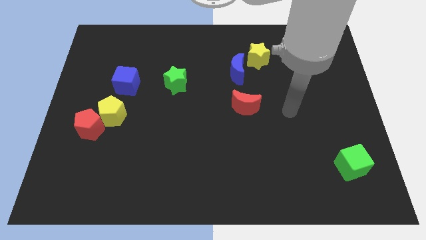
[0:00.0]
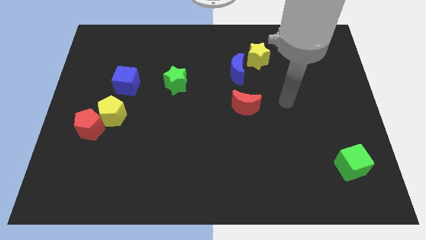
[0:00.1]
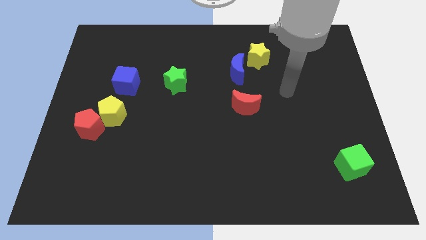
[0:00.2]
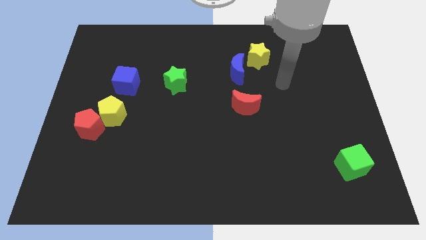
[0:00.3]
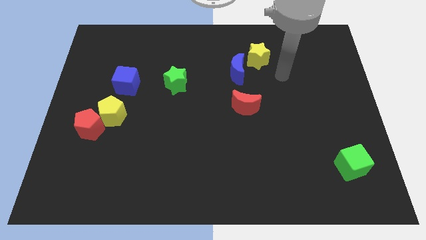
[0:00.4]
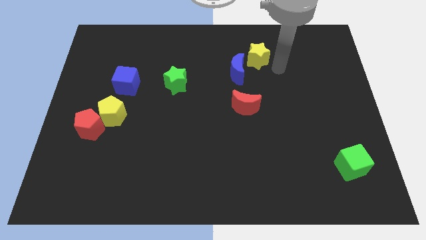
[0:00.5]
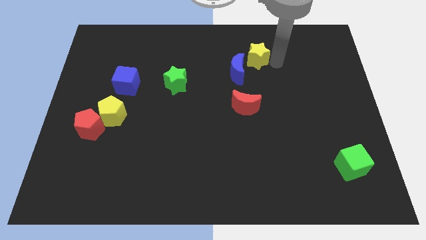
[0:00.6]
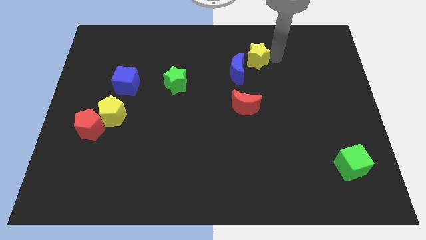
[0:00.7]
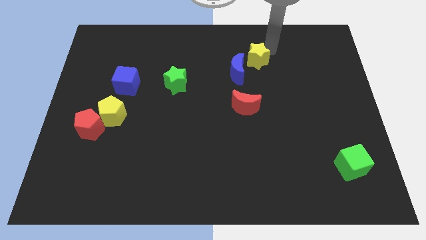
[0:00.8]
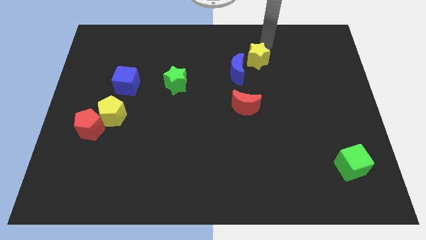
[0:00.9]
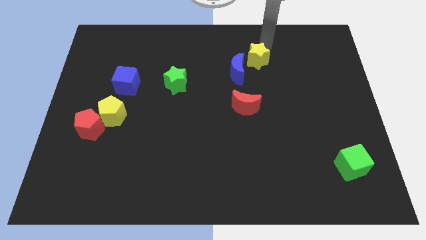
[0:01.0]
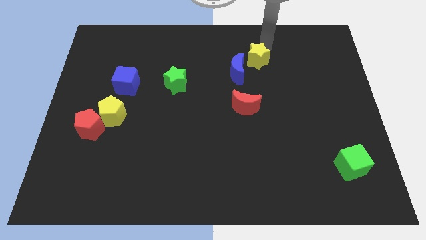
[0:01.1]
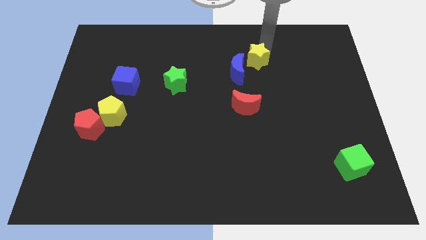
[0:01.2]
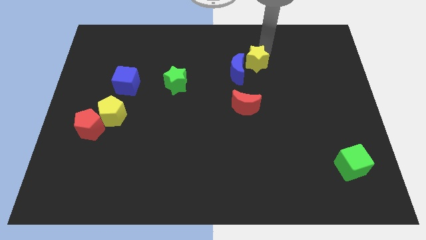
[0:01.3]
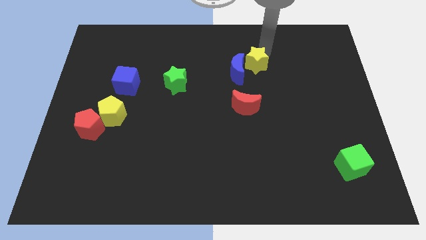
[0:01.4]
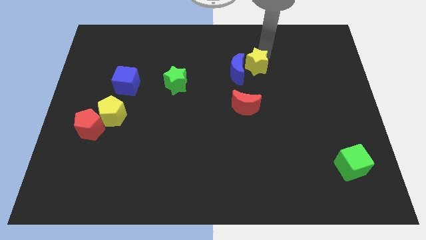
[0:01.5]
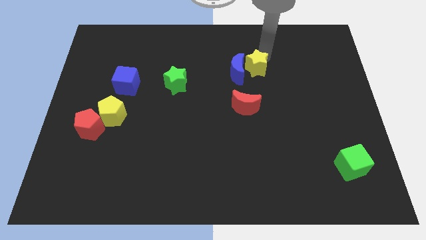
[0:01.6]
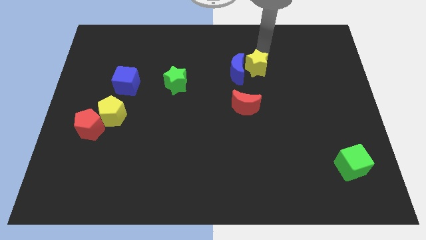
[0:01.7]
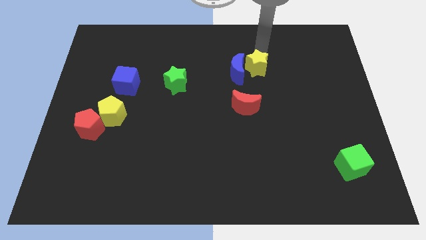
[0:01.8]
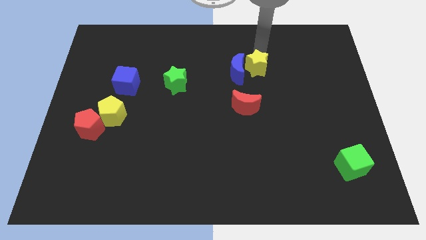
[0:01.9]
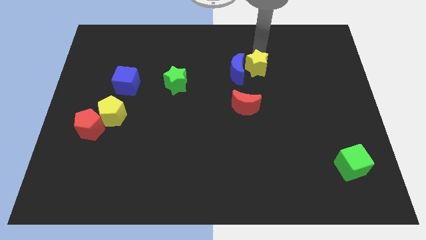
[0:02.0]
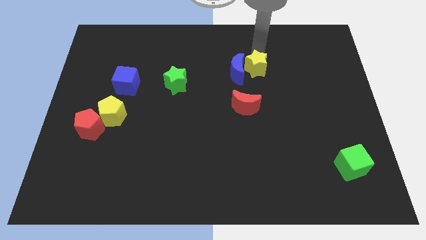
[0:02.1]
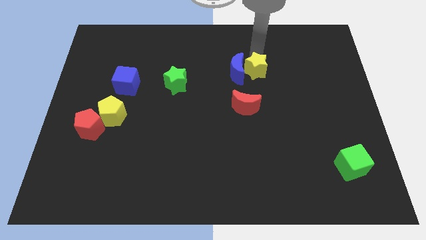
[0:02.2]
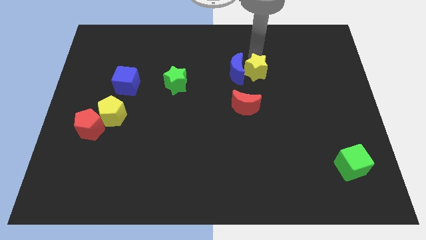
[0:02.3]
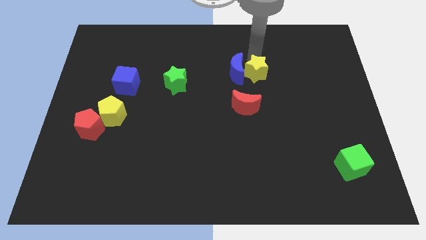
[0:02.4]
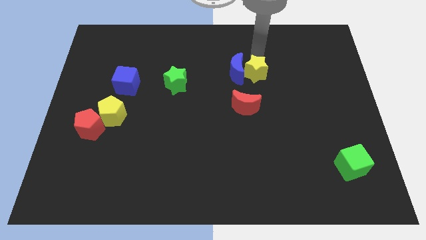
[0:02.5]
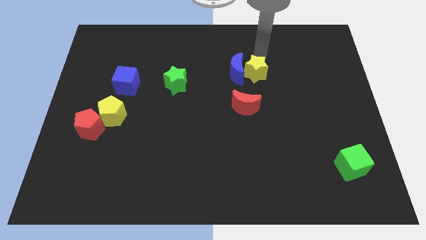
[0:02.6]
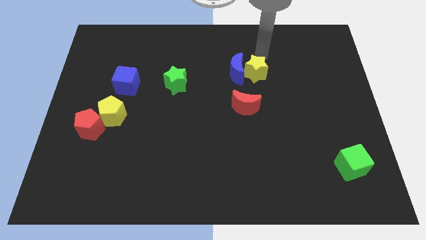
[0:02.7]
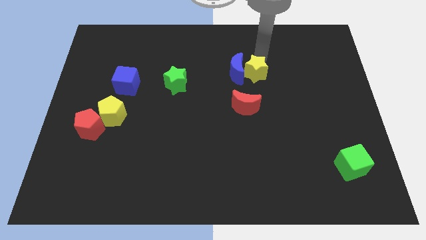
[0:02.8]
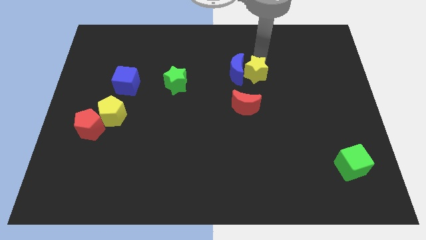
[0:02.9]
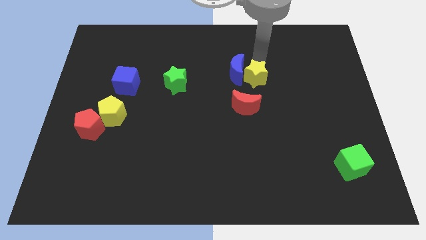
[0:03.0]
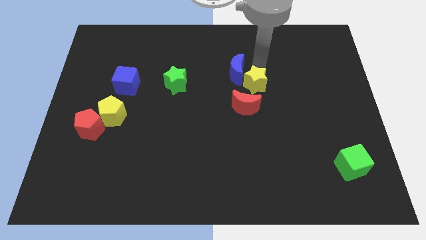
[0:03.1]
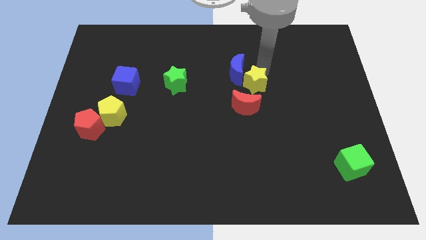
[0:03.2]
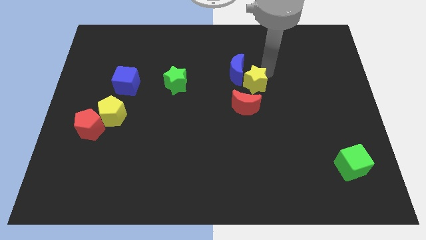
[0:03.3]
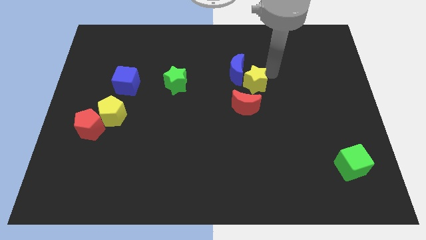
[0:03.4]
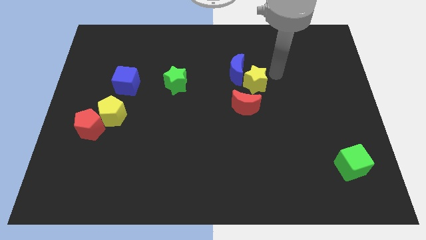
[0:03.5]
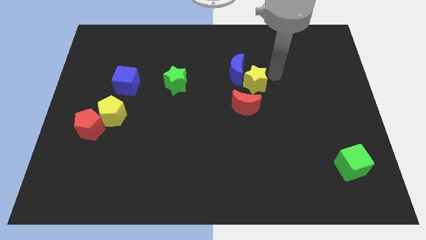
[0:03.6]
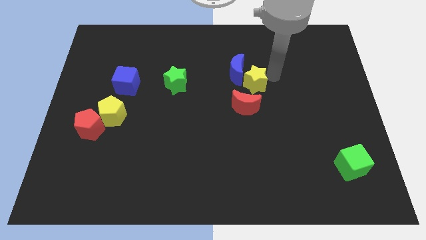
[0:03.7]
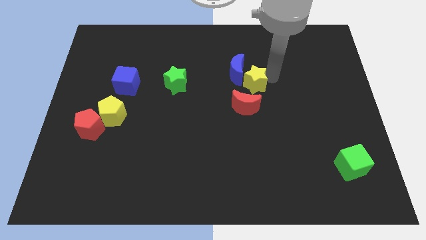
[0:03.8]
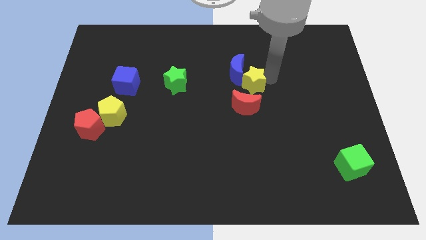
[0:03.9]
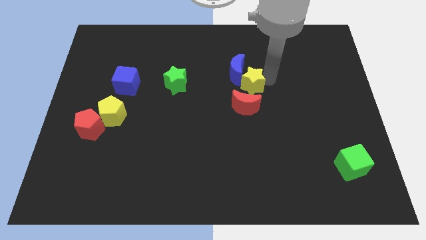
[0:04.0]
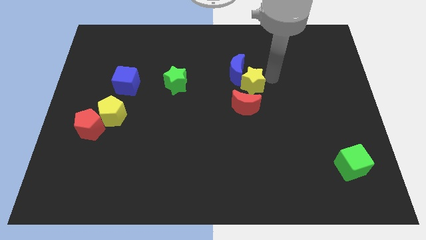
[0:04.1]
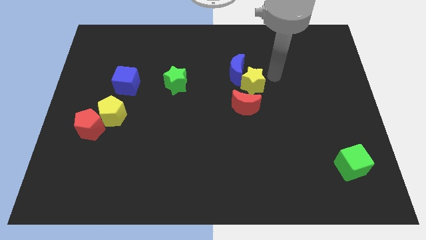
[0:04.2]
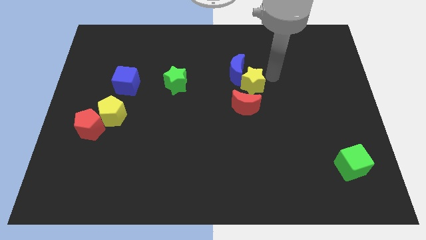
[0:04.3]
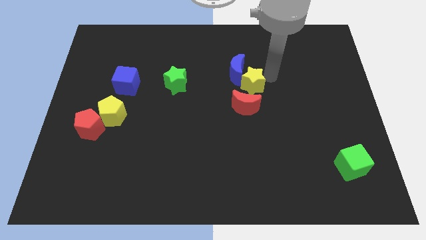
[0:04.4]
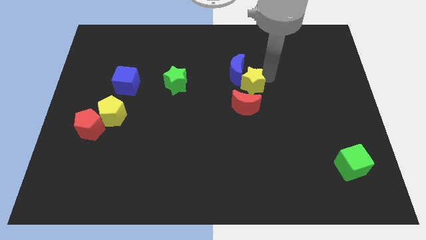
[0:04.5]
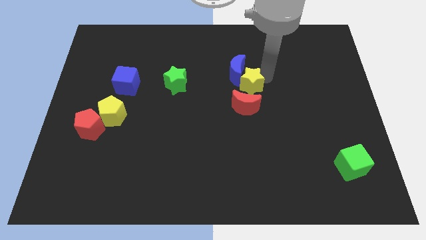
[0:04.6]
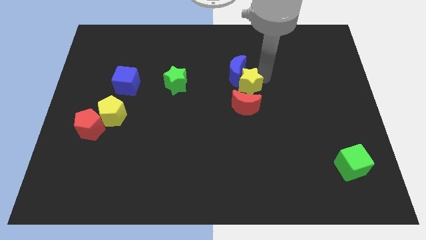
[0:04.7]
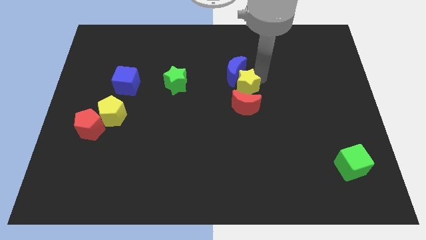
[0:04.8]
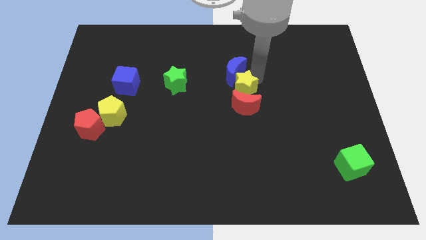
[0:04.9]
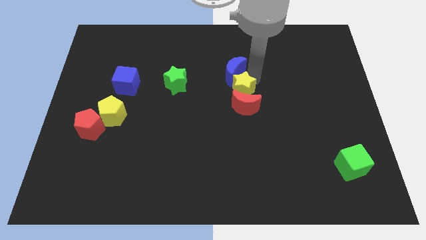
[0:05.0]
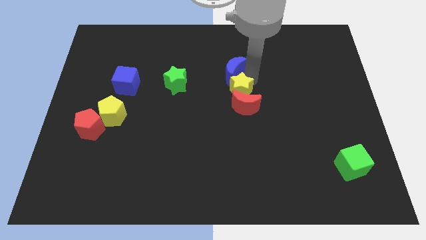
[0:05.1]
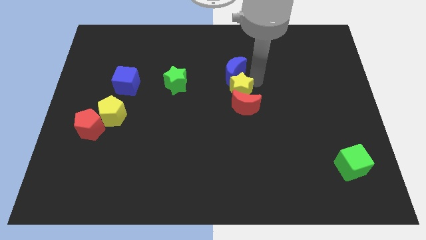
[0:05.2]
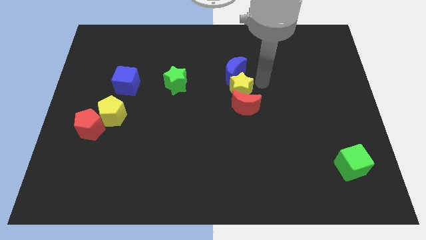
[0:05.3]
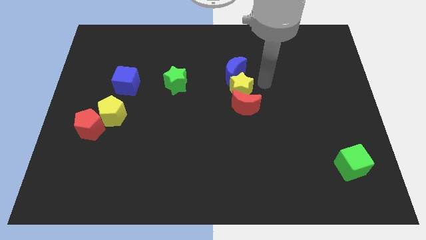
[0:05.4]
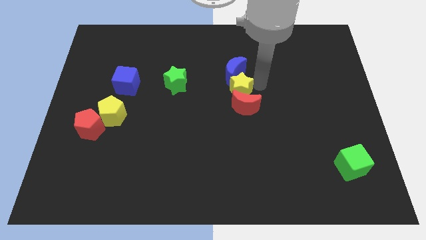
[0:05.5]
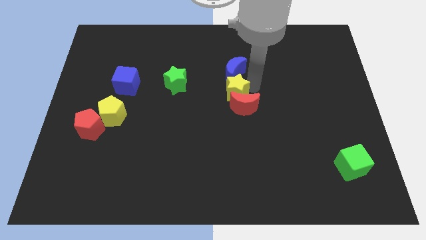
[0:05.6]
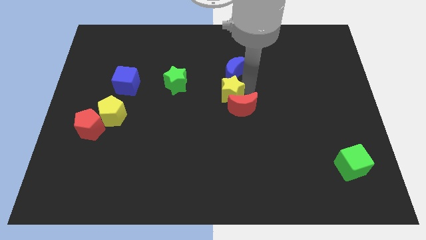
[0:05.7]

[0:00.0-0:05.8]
put the yellow star to the left side of the red moon

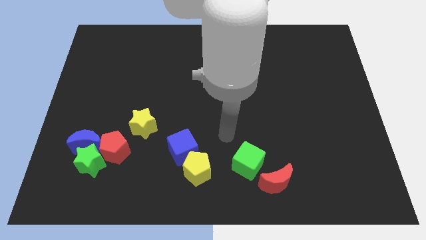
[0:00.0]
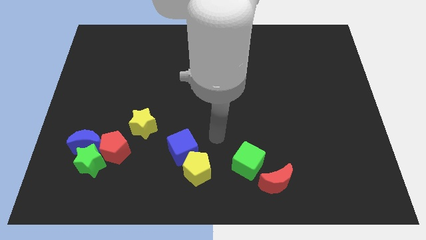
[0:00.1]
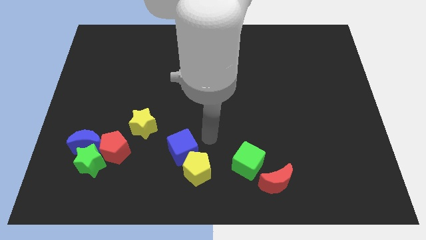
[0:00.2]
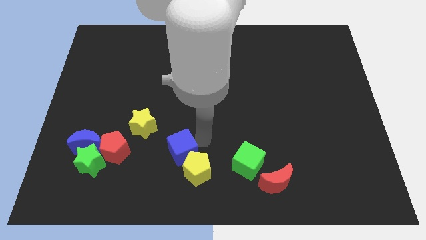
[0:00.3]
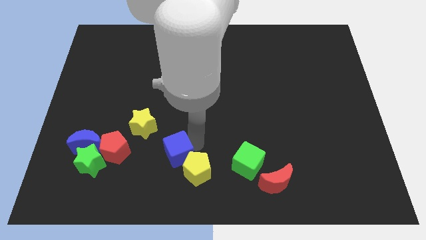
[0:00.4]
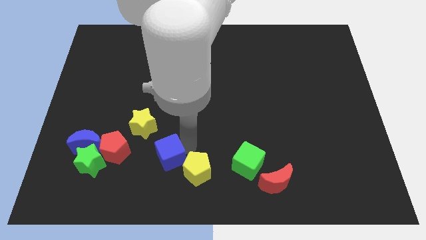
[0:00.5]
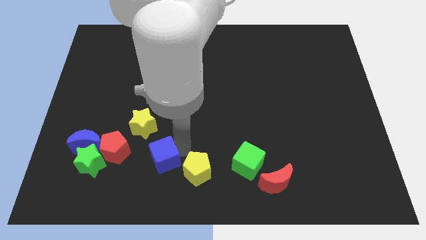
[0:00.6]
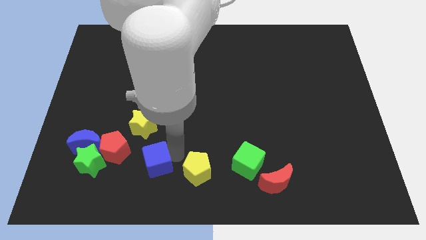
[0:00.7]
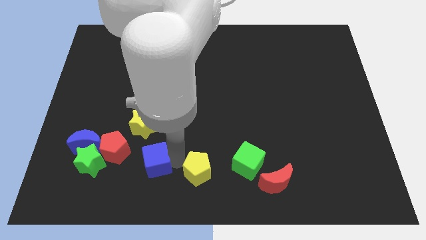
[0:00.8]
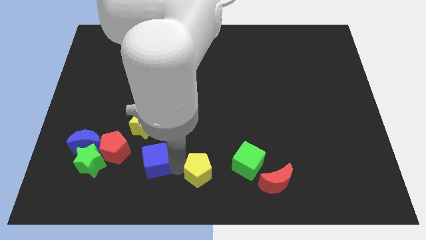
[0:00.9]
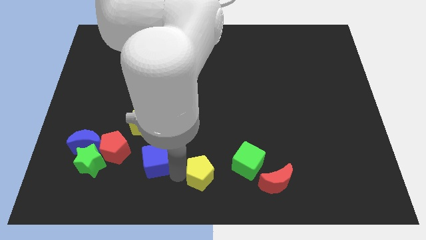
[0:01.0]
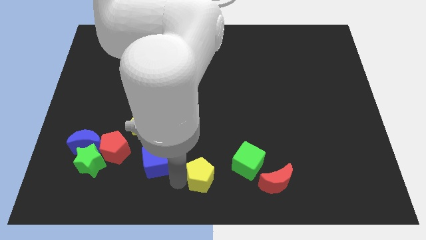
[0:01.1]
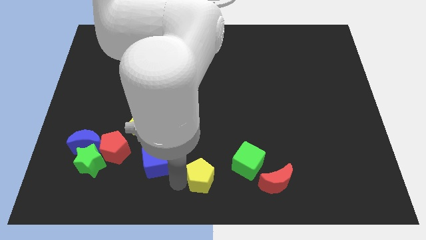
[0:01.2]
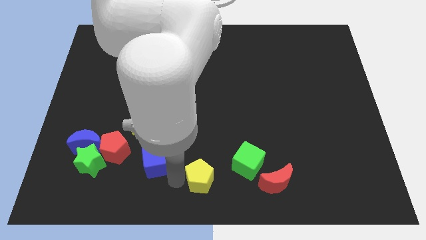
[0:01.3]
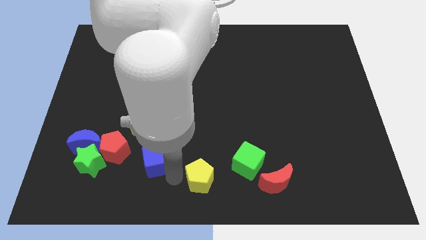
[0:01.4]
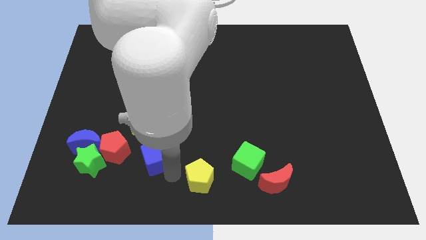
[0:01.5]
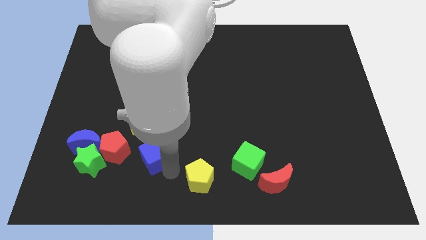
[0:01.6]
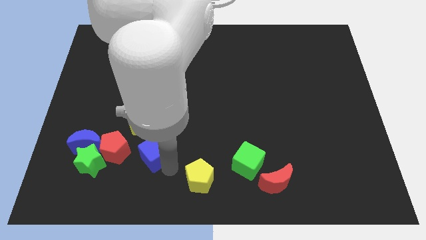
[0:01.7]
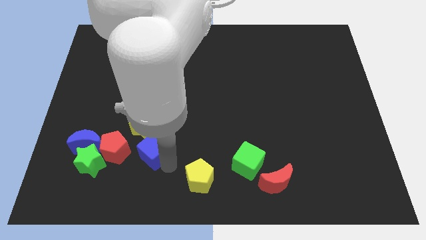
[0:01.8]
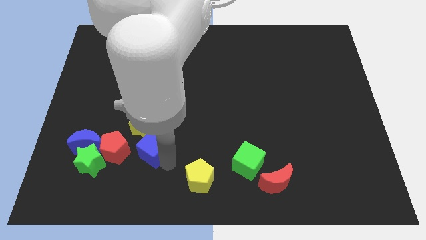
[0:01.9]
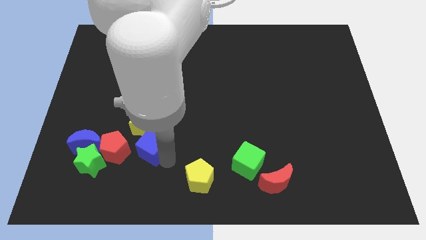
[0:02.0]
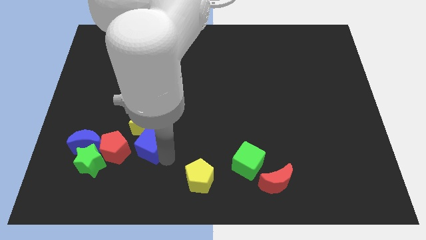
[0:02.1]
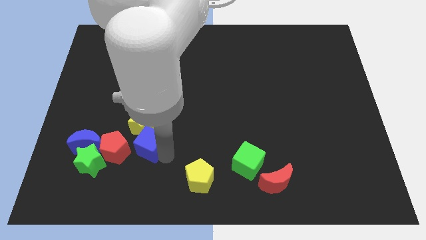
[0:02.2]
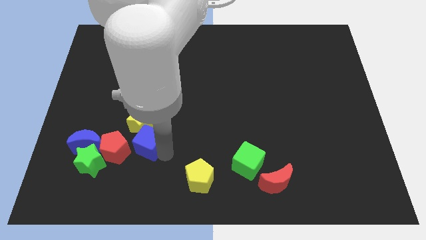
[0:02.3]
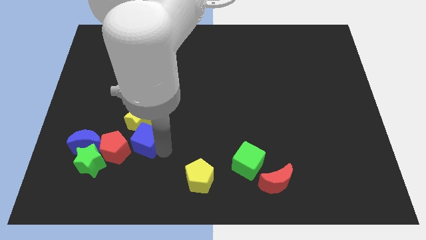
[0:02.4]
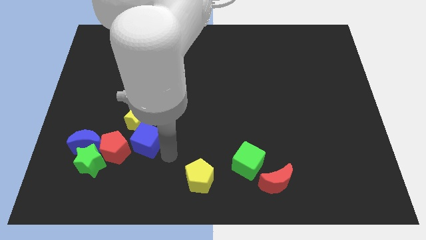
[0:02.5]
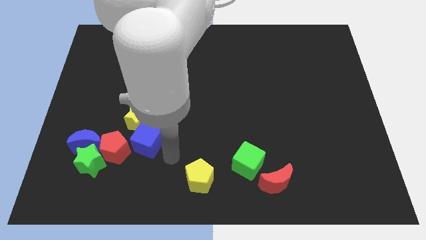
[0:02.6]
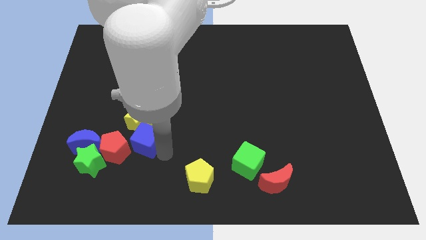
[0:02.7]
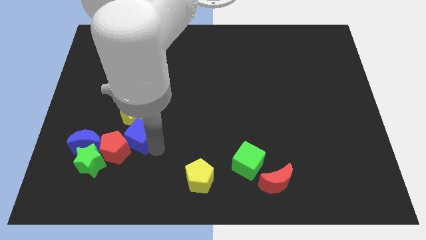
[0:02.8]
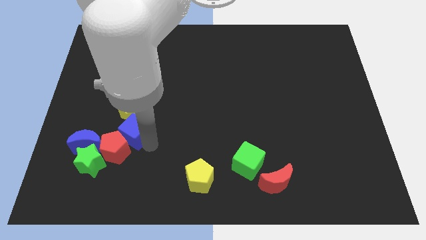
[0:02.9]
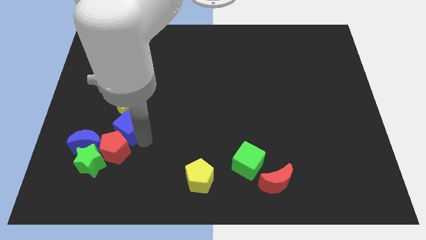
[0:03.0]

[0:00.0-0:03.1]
put the blue cube diagonally up and to the right of the blue moon
